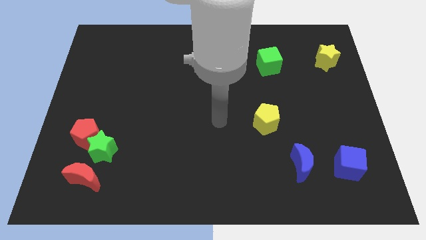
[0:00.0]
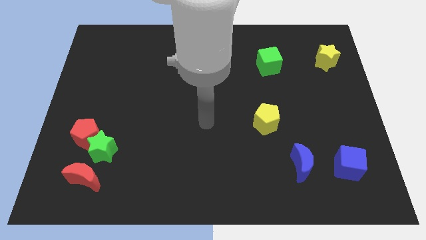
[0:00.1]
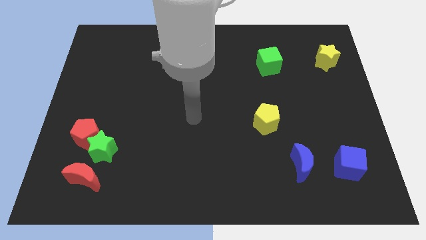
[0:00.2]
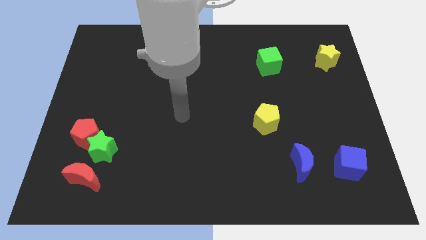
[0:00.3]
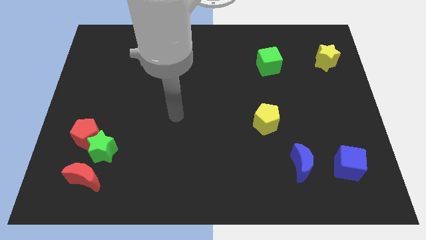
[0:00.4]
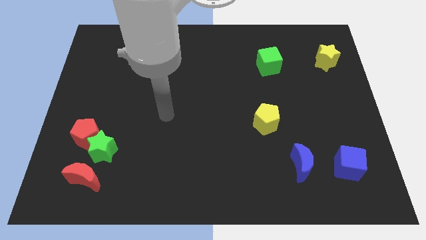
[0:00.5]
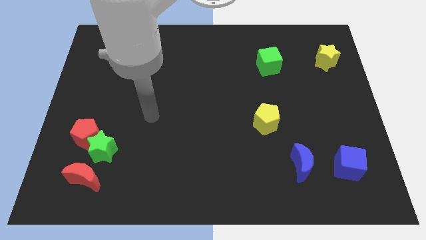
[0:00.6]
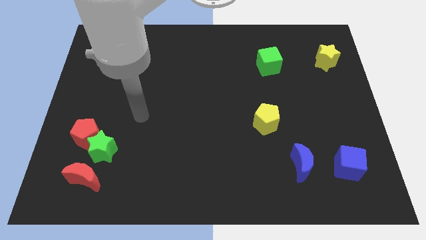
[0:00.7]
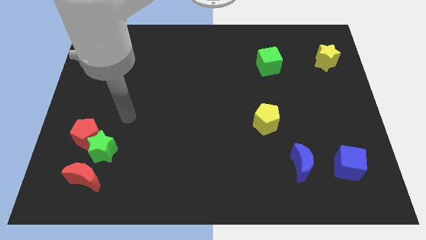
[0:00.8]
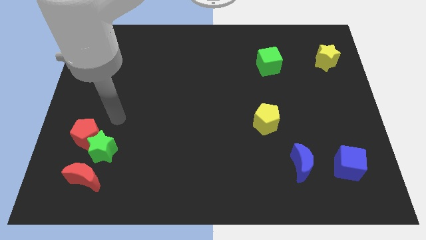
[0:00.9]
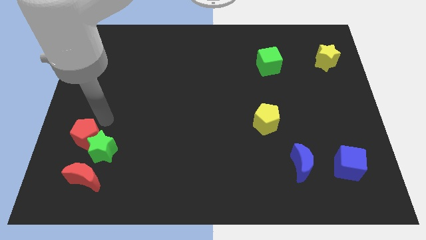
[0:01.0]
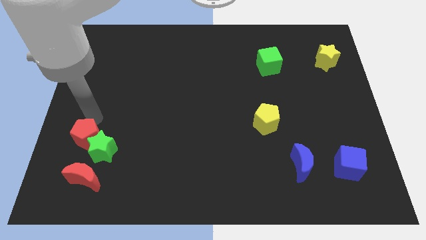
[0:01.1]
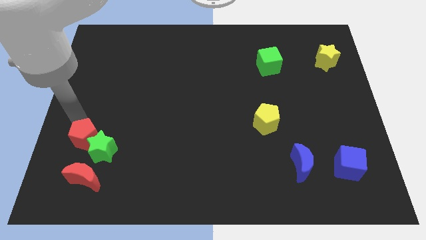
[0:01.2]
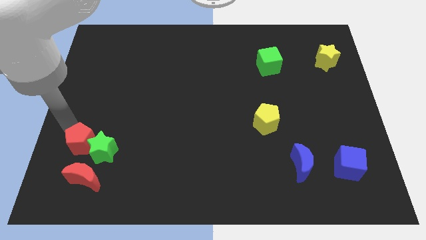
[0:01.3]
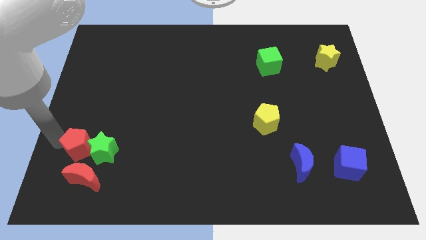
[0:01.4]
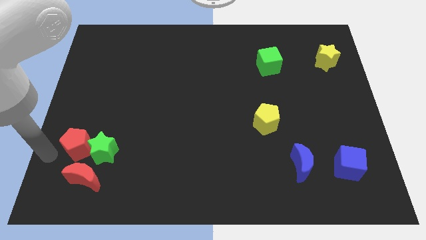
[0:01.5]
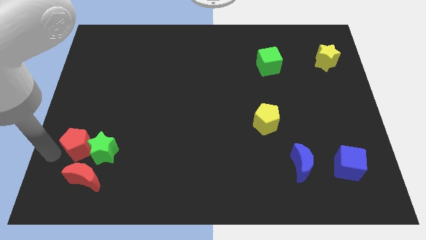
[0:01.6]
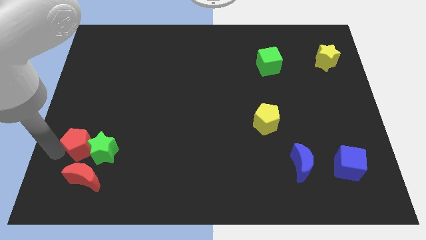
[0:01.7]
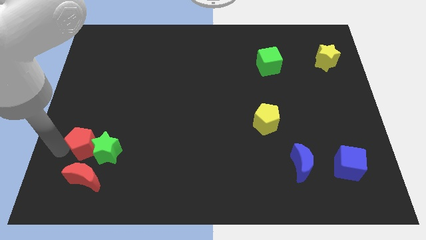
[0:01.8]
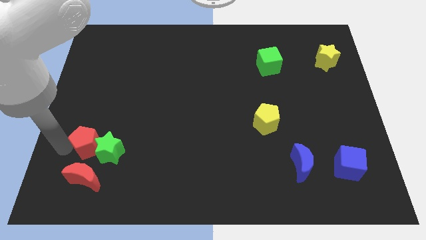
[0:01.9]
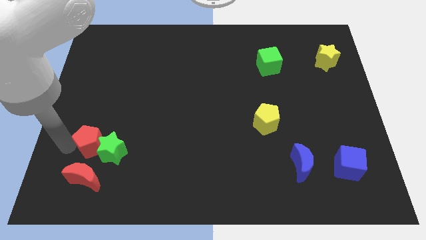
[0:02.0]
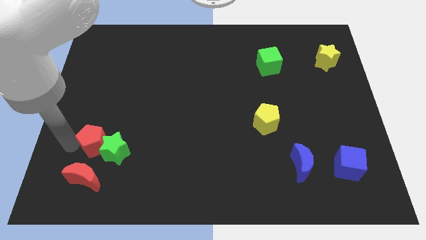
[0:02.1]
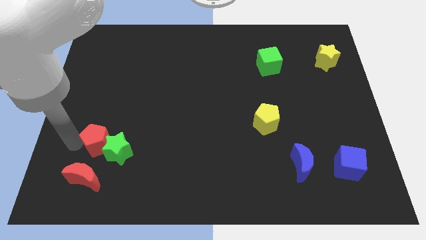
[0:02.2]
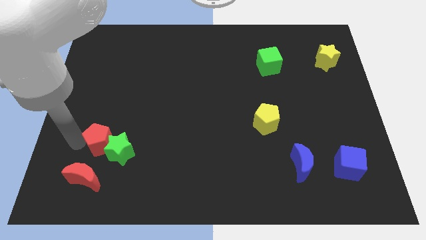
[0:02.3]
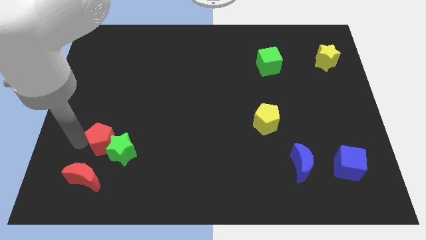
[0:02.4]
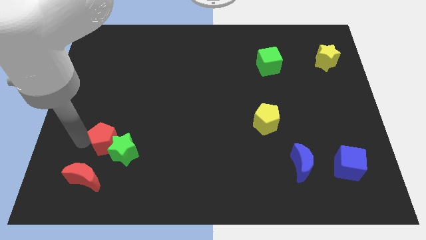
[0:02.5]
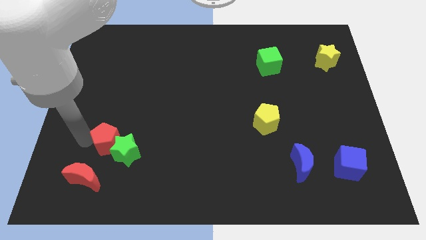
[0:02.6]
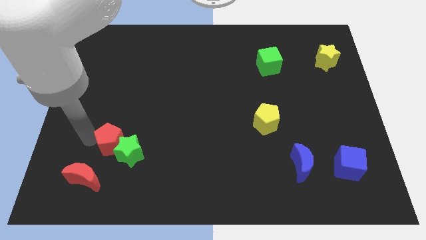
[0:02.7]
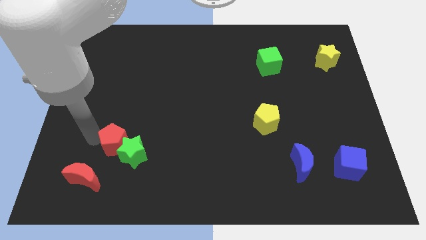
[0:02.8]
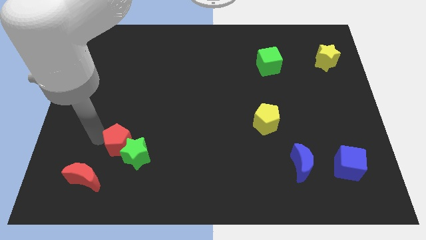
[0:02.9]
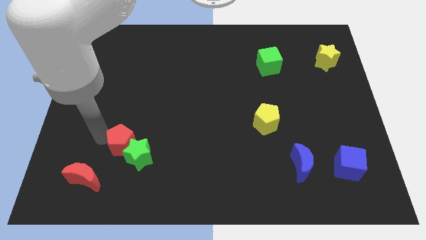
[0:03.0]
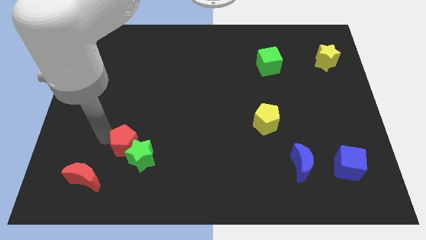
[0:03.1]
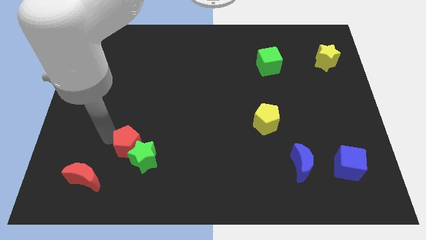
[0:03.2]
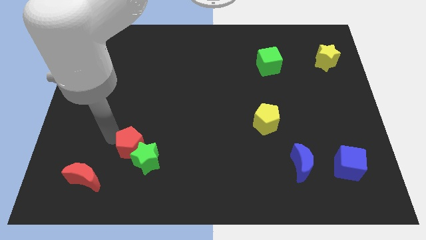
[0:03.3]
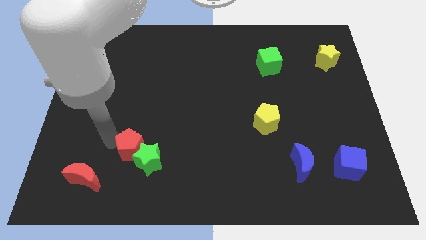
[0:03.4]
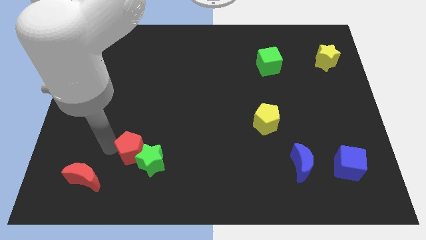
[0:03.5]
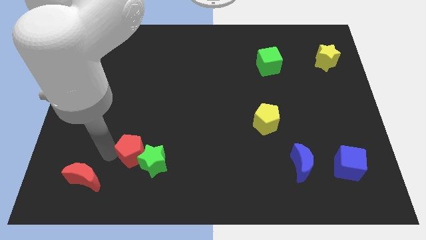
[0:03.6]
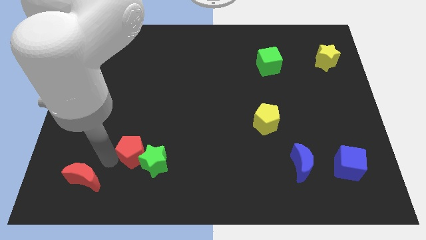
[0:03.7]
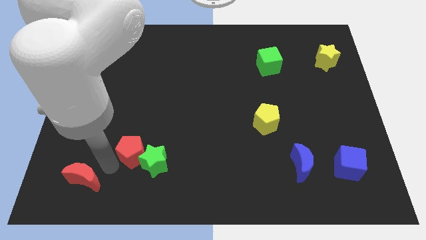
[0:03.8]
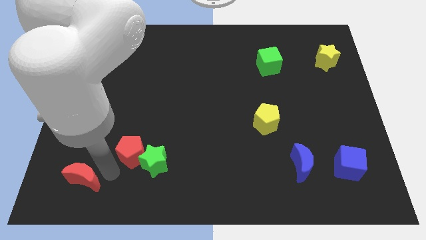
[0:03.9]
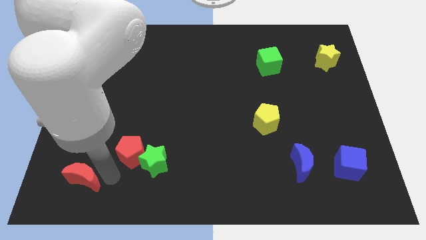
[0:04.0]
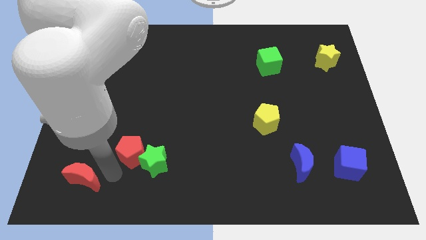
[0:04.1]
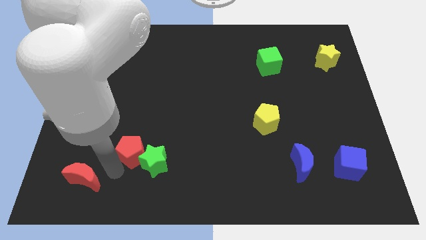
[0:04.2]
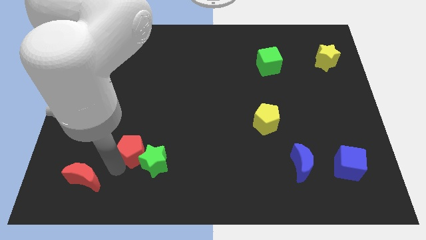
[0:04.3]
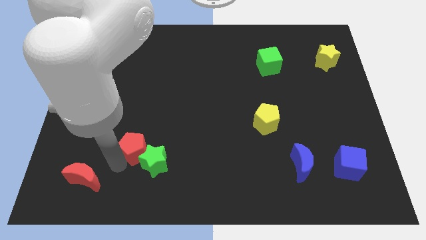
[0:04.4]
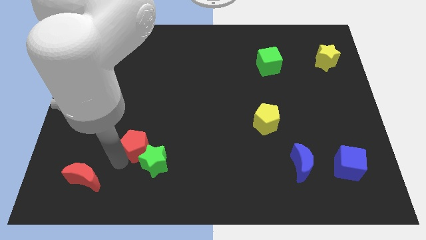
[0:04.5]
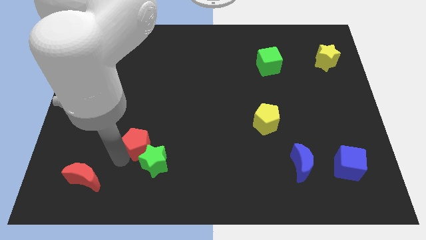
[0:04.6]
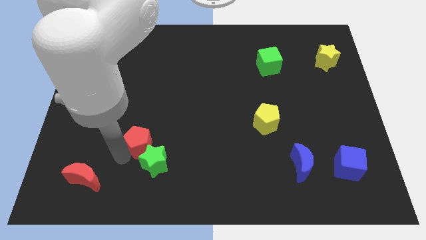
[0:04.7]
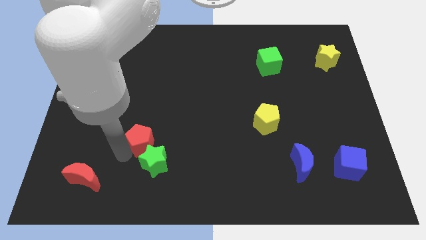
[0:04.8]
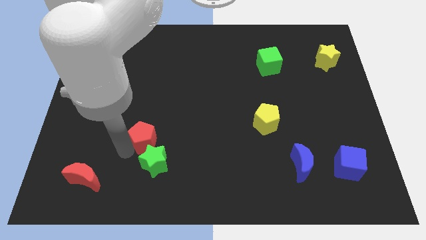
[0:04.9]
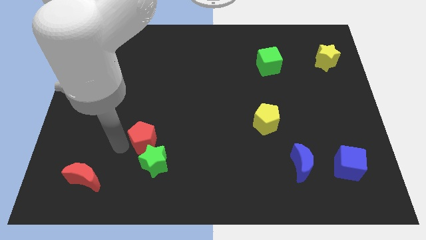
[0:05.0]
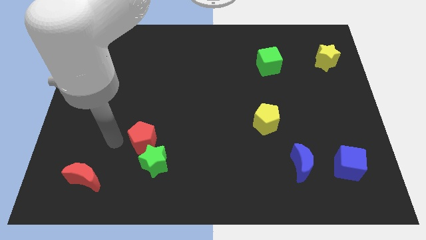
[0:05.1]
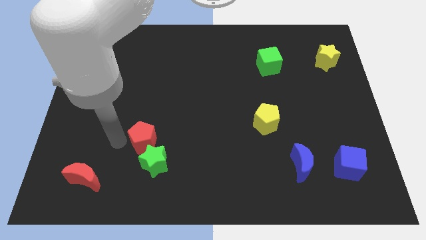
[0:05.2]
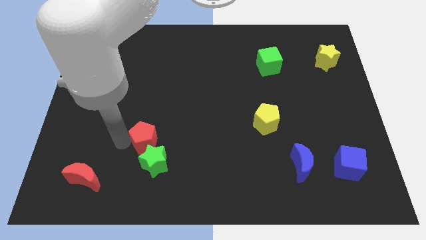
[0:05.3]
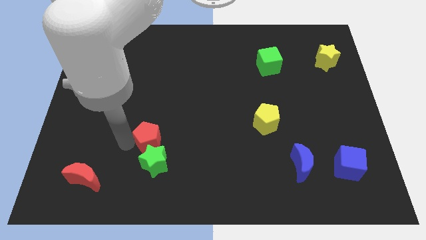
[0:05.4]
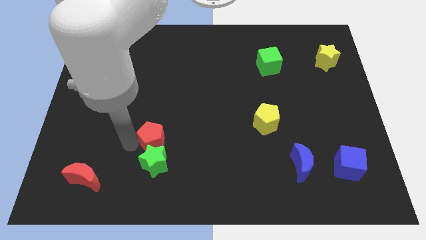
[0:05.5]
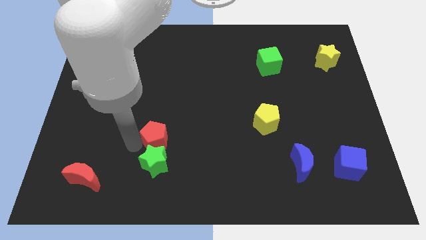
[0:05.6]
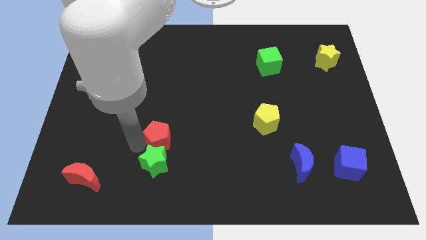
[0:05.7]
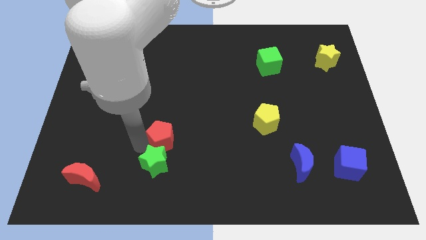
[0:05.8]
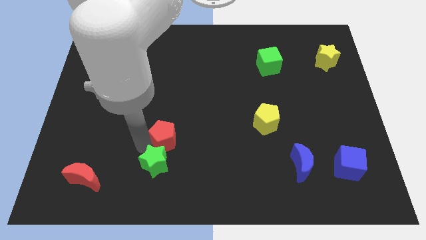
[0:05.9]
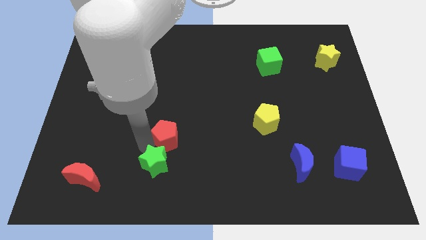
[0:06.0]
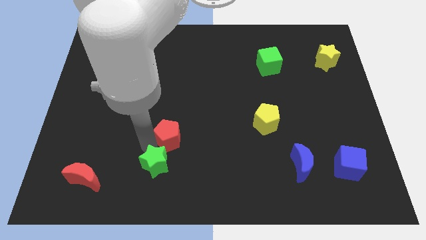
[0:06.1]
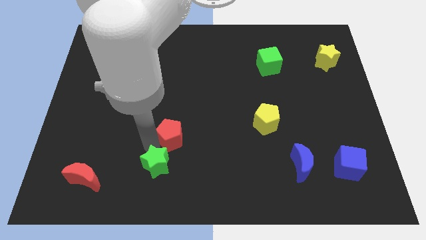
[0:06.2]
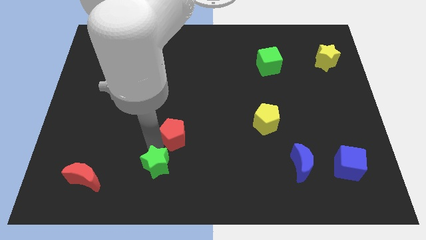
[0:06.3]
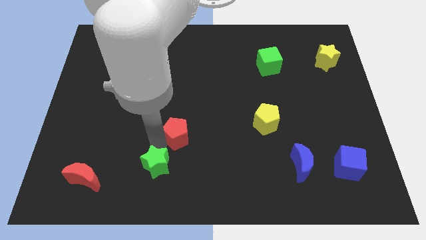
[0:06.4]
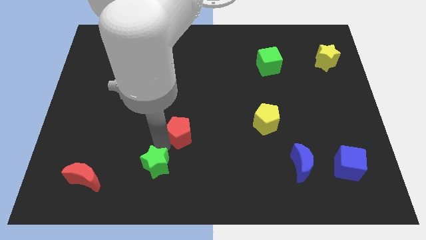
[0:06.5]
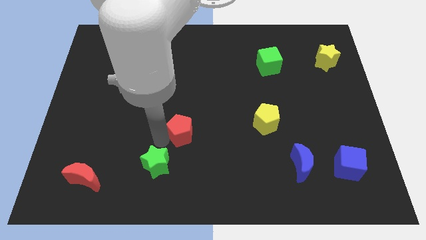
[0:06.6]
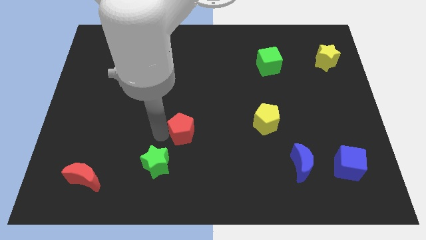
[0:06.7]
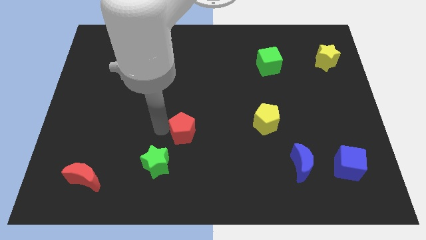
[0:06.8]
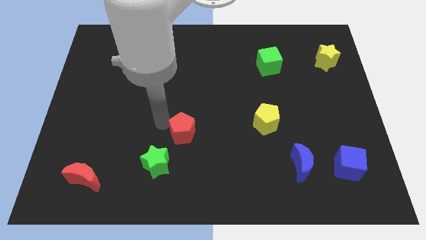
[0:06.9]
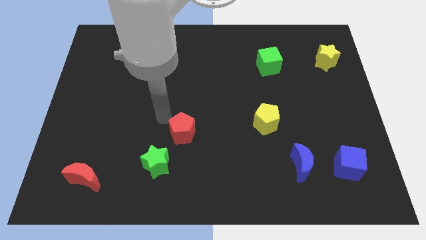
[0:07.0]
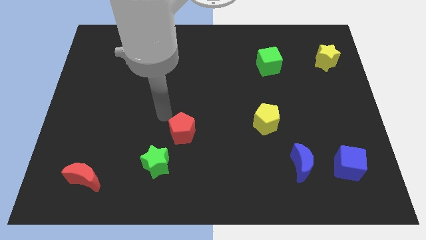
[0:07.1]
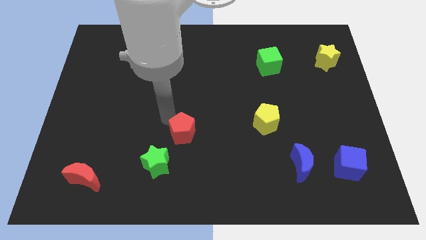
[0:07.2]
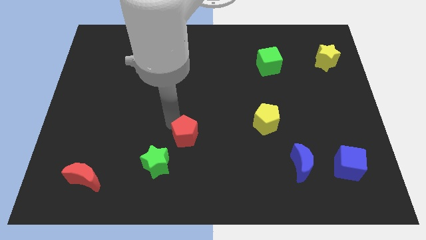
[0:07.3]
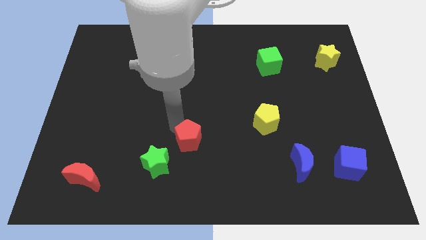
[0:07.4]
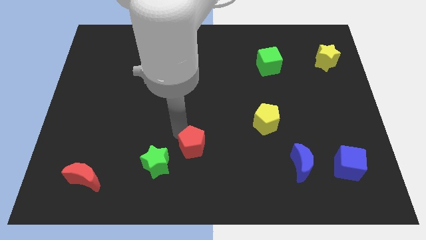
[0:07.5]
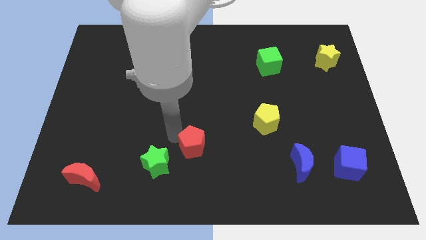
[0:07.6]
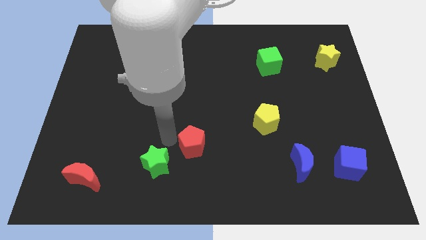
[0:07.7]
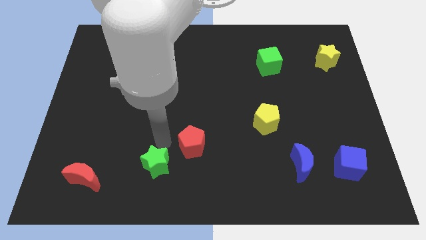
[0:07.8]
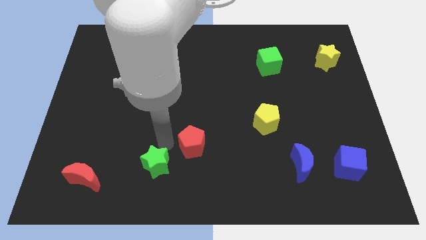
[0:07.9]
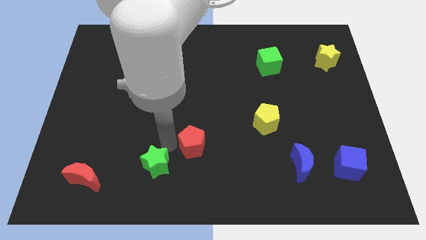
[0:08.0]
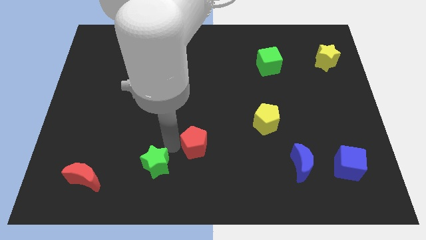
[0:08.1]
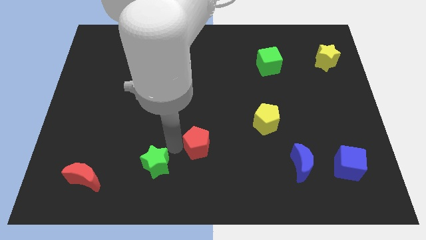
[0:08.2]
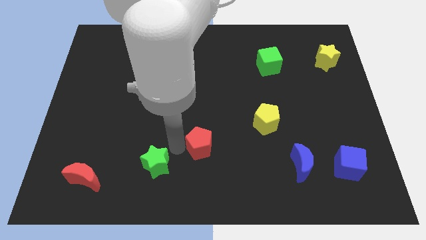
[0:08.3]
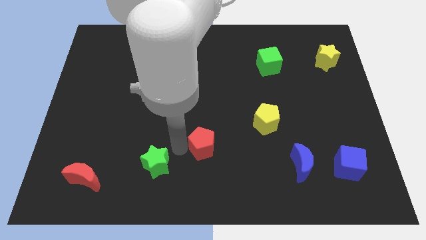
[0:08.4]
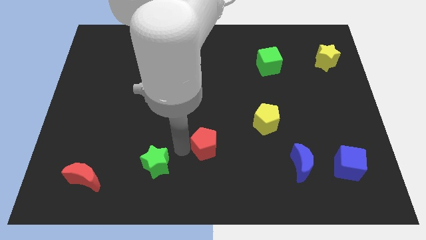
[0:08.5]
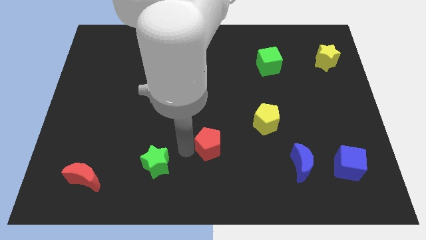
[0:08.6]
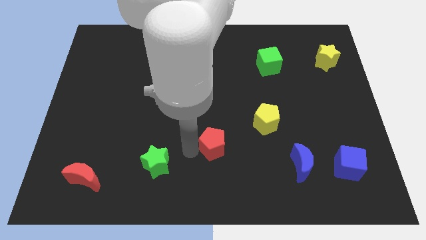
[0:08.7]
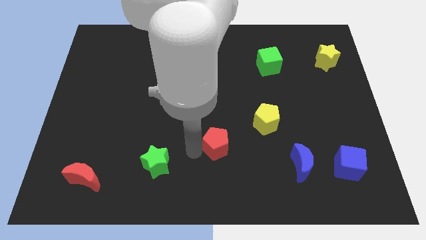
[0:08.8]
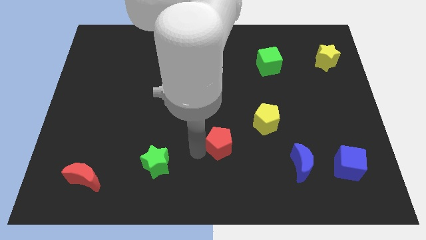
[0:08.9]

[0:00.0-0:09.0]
push the red pentagon to the bottom left of the yellow pentagon
